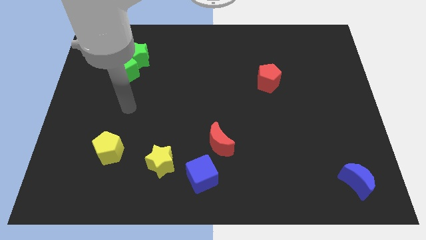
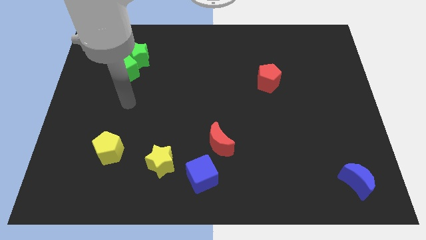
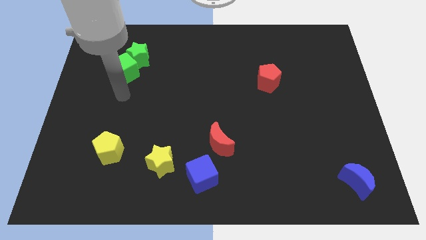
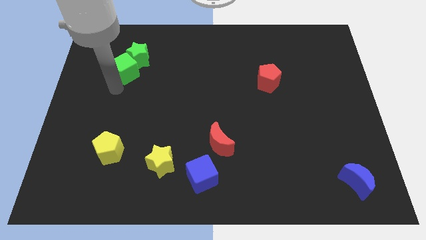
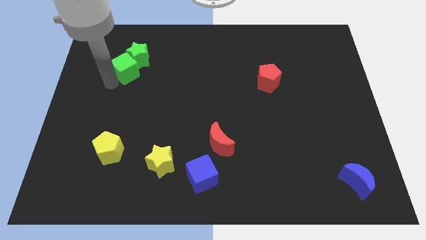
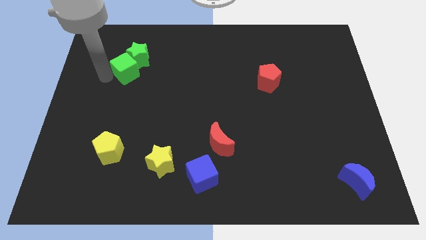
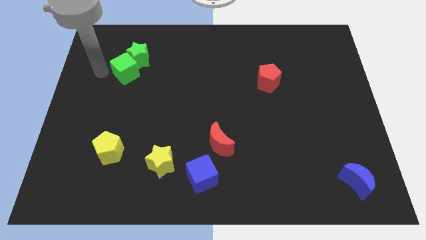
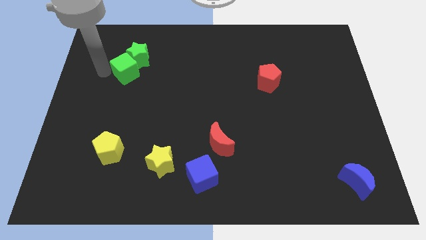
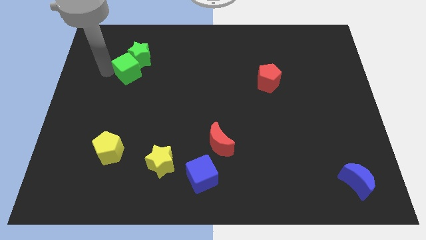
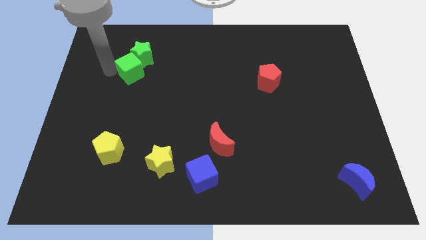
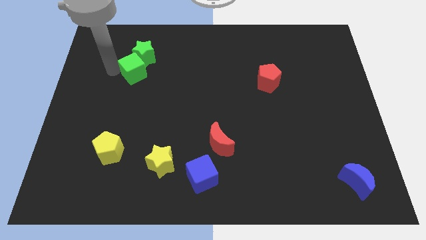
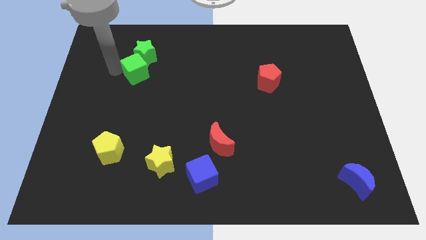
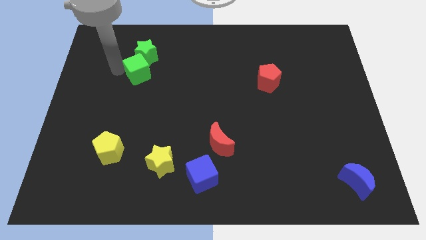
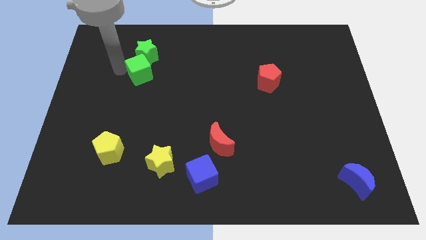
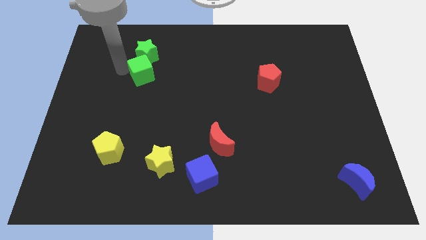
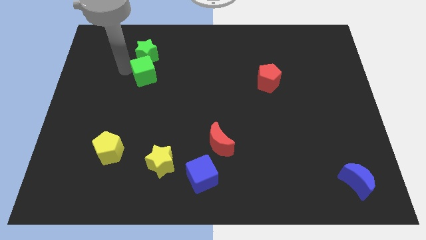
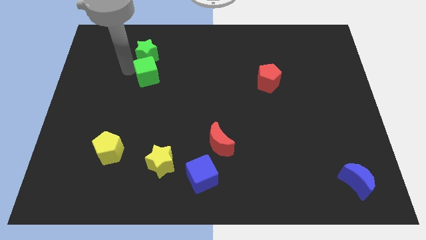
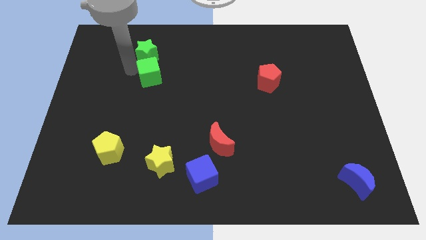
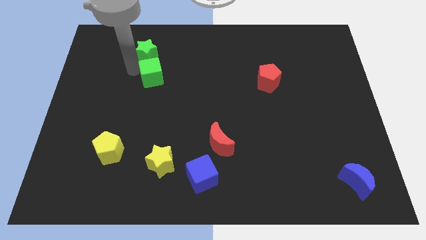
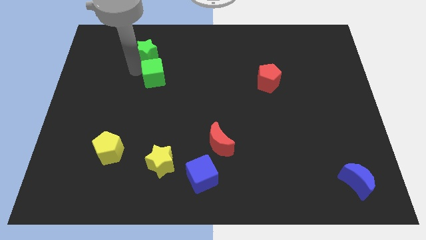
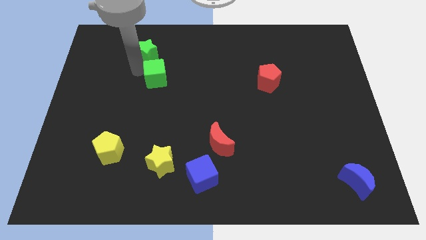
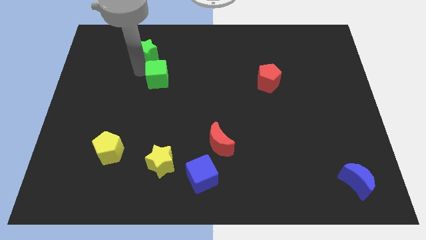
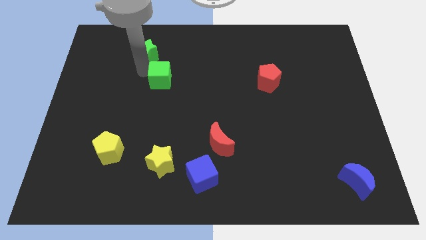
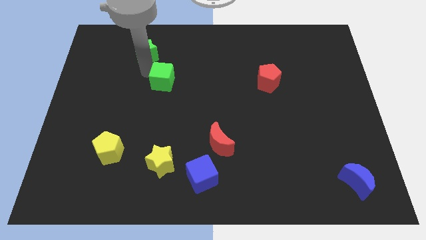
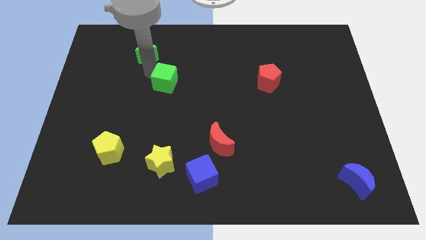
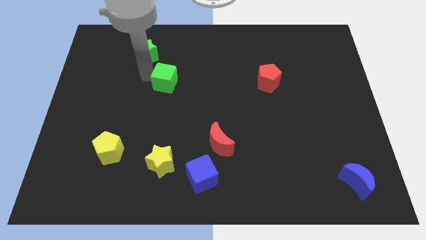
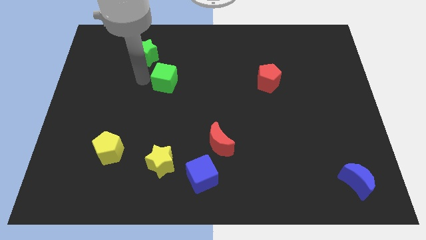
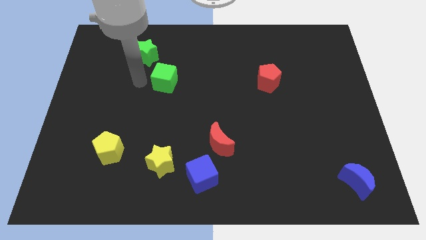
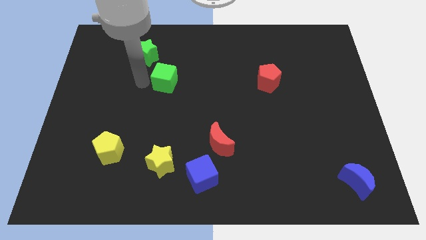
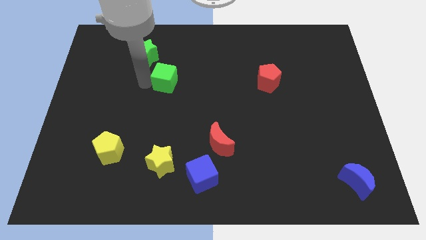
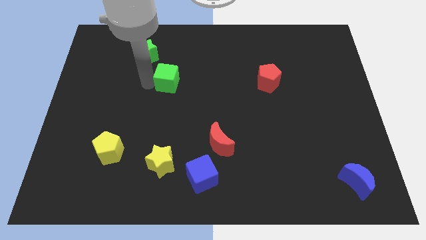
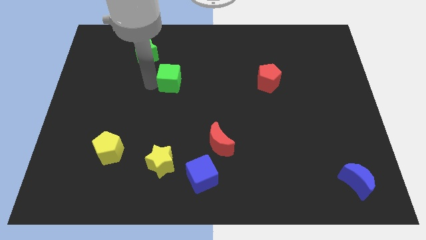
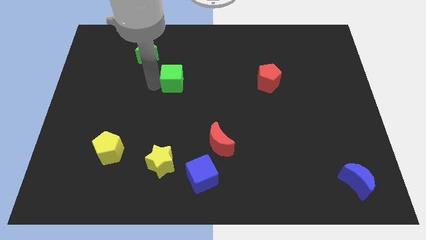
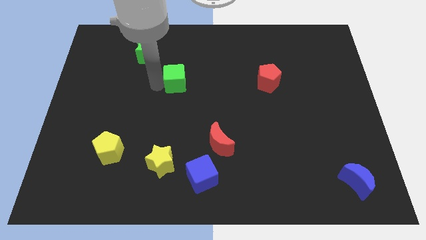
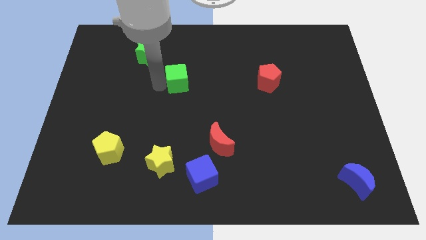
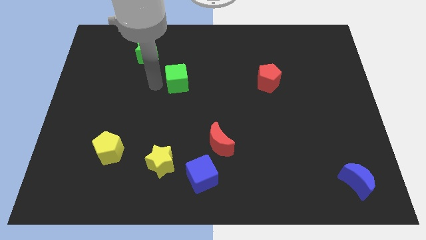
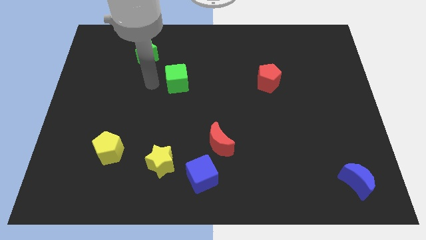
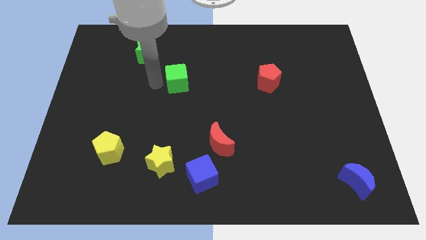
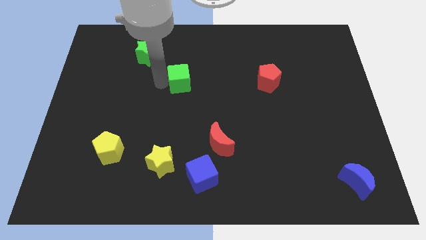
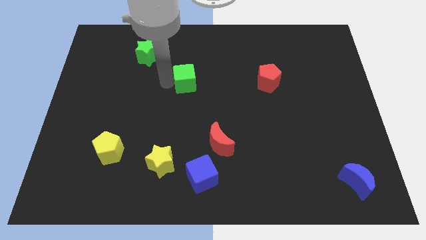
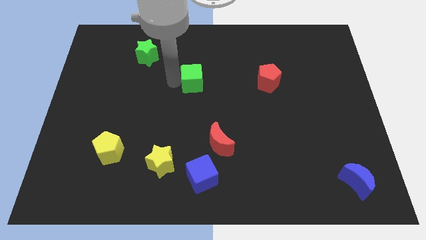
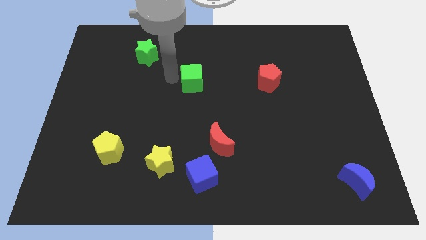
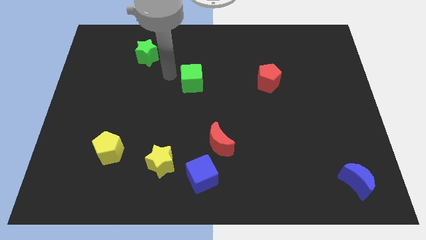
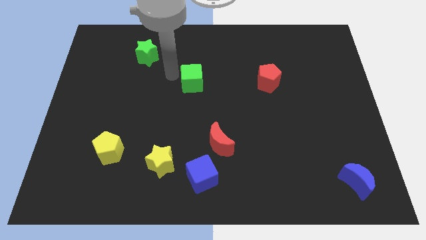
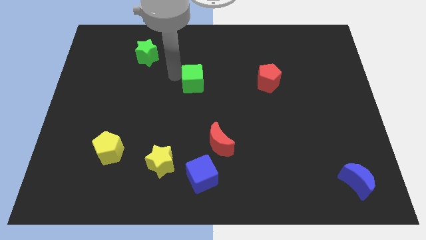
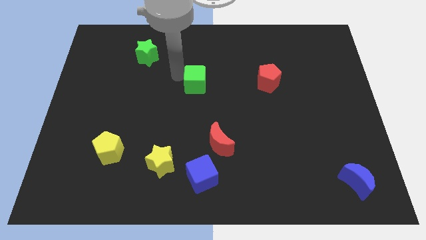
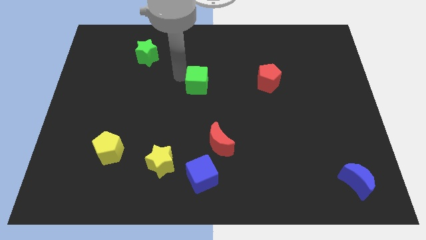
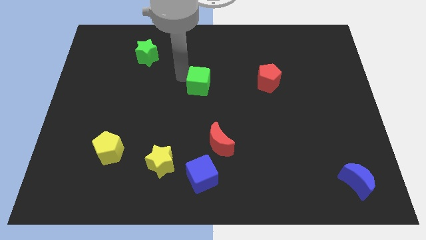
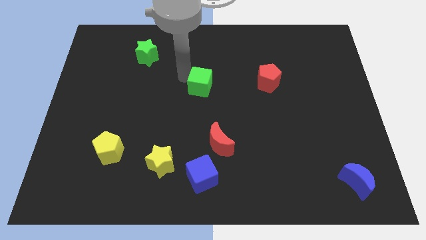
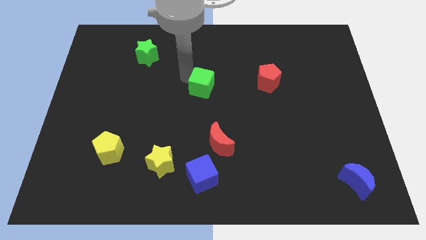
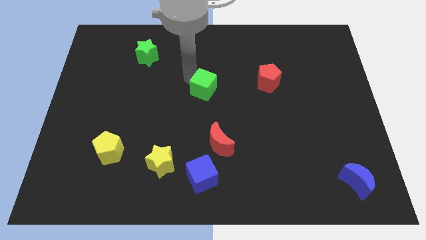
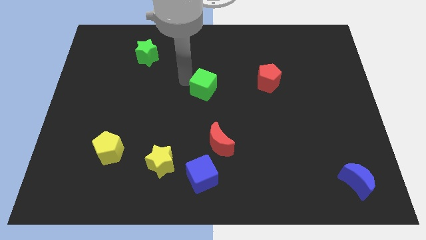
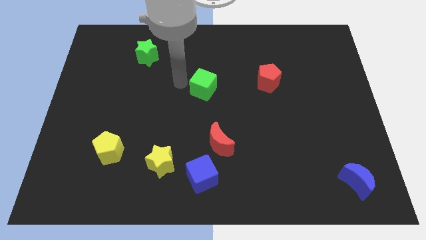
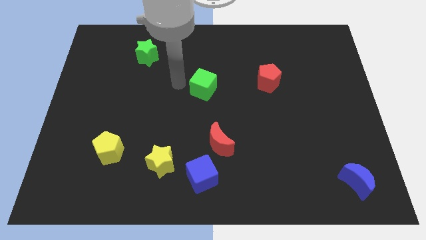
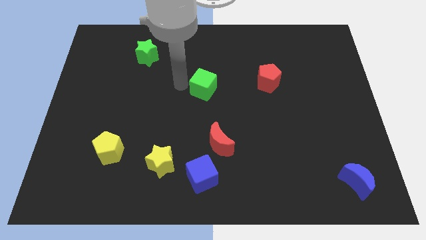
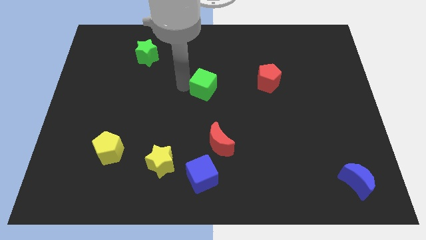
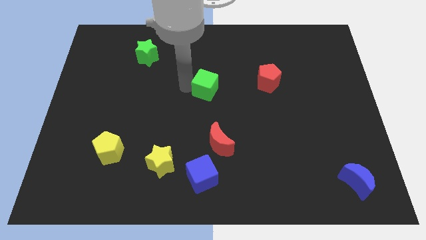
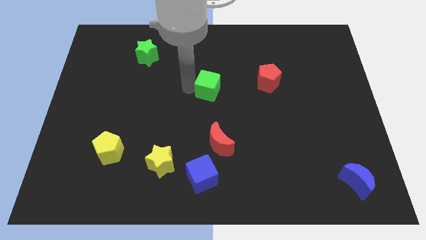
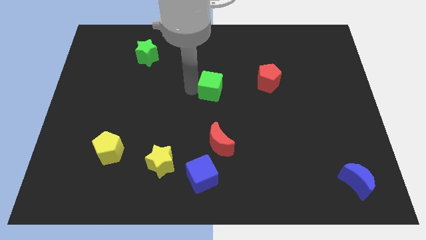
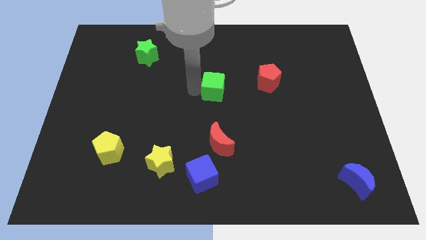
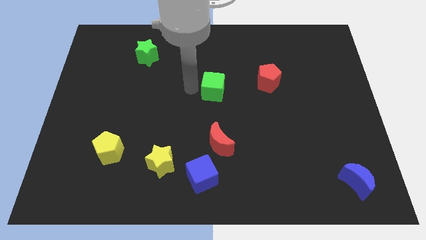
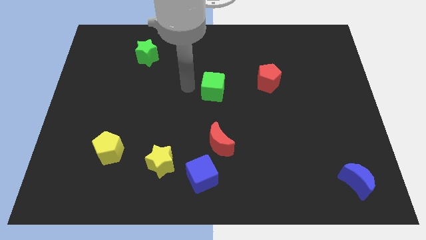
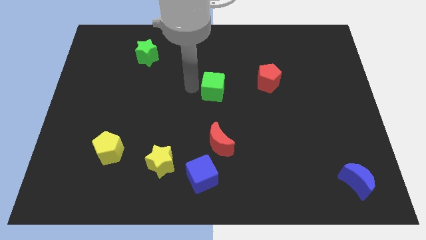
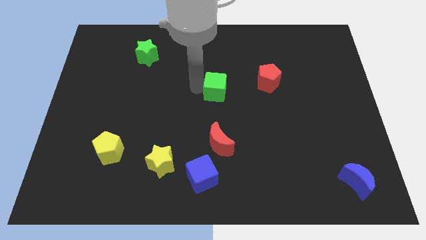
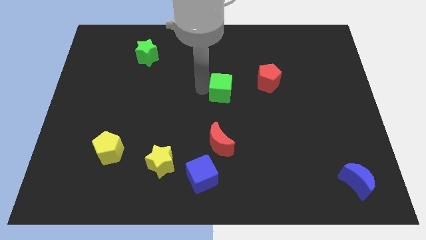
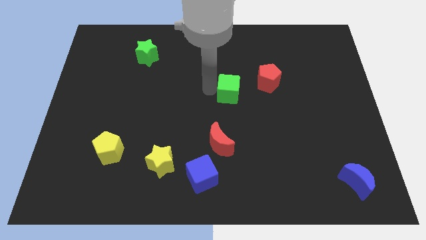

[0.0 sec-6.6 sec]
slide the green cube diagonally down and to the left of the red pentagon

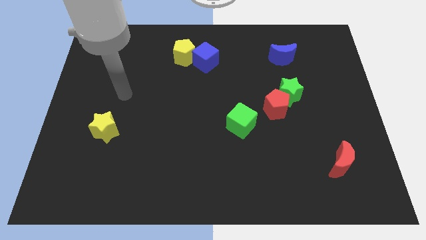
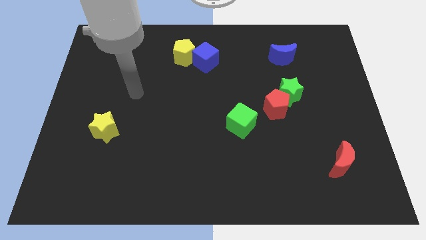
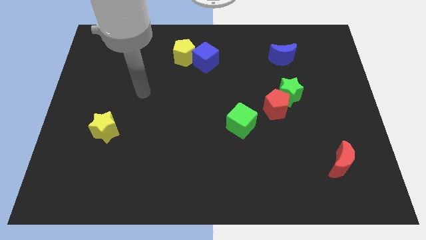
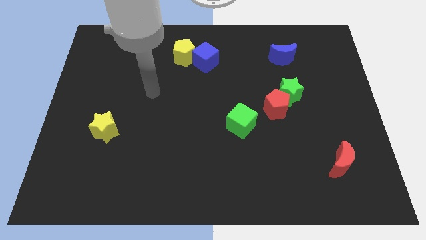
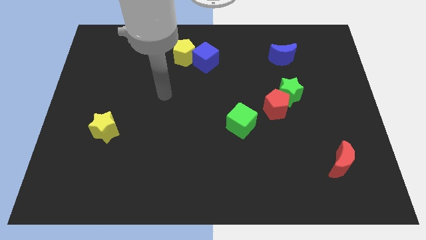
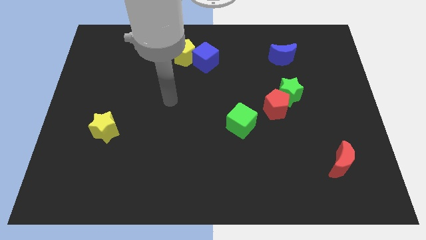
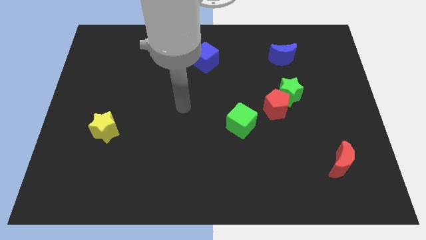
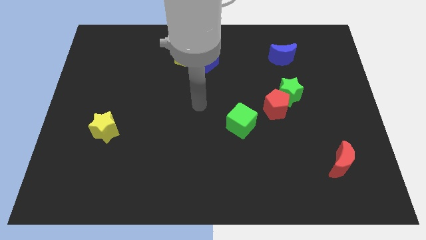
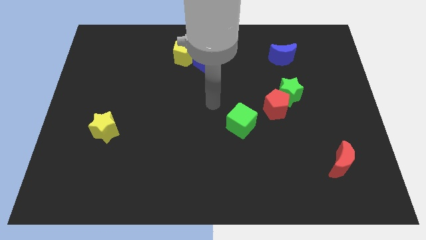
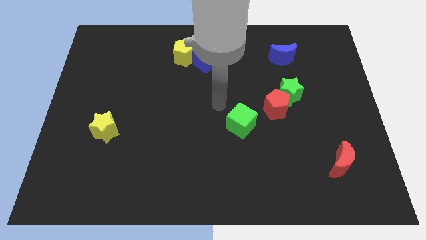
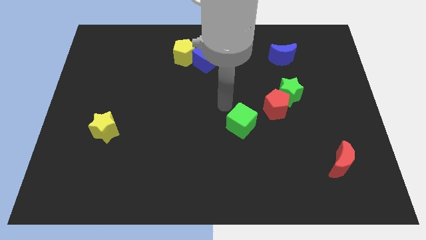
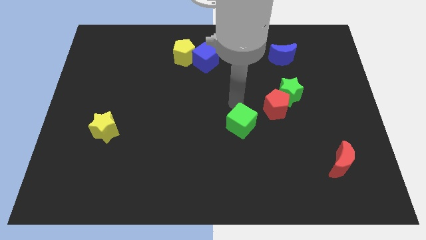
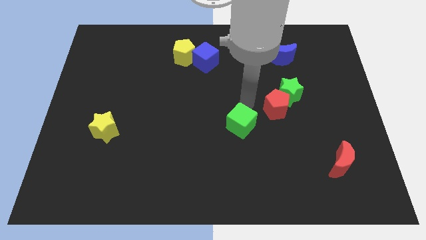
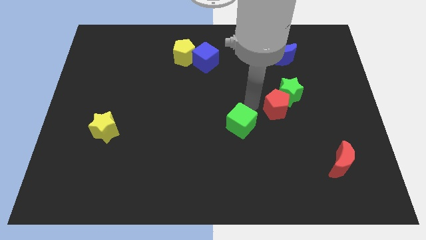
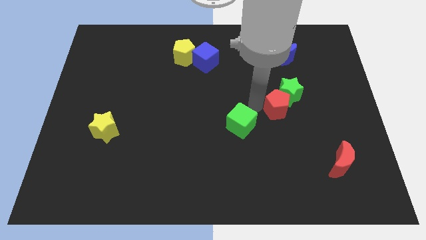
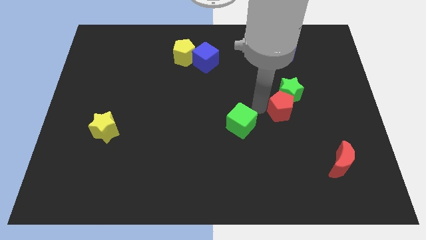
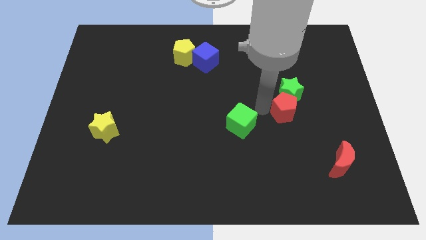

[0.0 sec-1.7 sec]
push the red pentagon diagonally down and to the right of the green star
